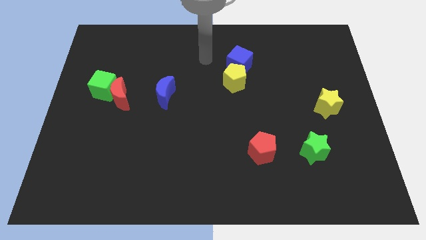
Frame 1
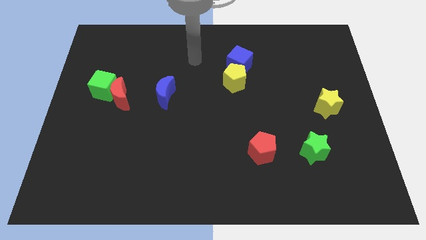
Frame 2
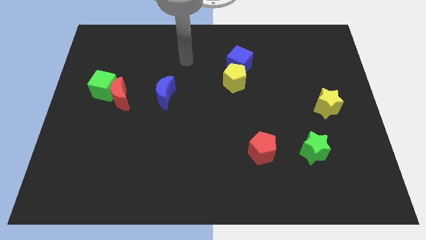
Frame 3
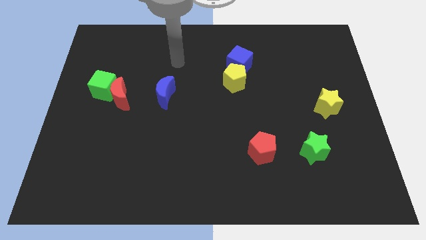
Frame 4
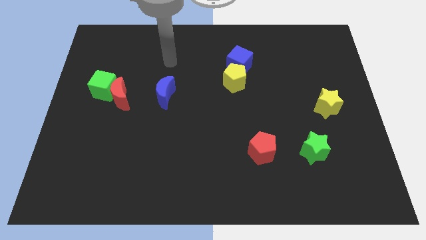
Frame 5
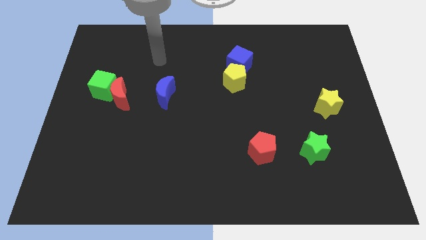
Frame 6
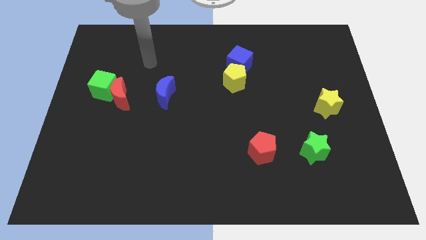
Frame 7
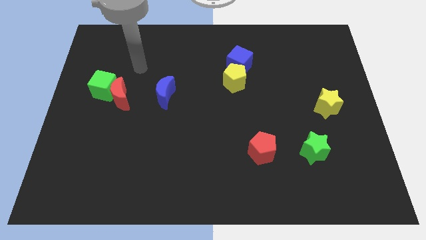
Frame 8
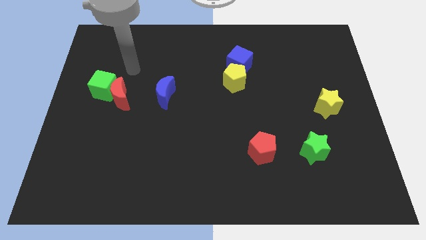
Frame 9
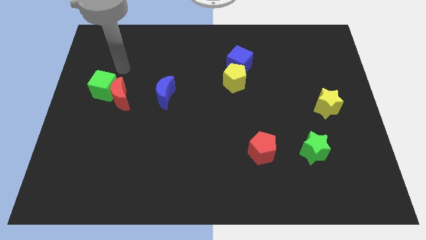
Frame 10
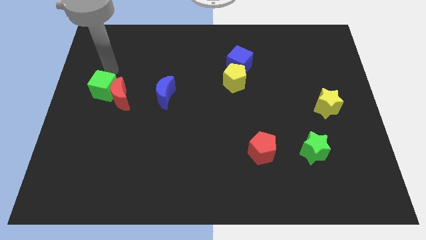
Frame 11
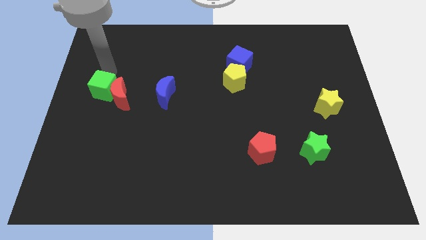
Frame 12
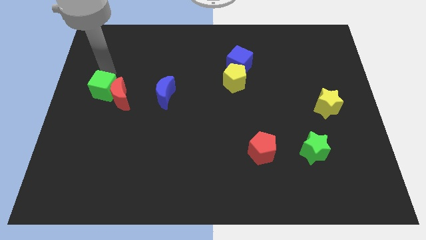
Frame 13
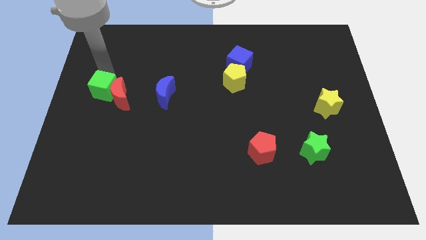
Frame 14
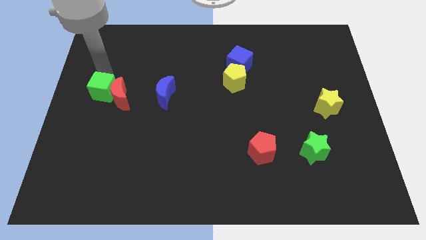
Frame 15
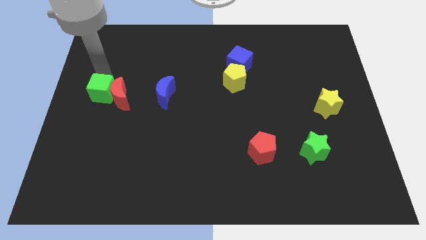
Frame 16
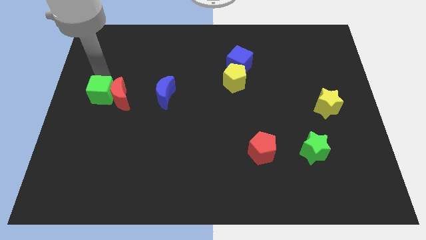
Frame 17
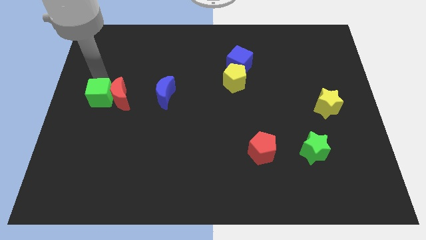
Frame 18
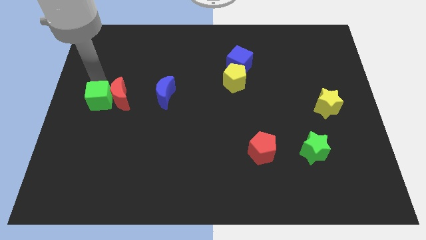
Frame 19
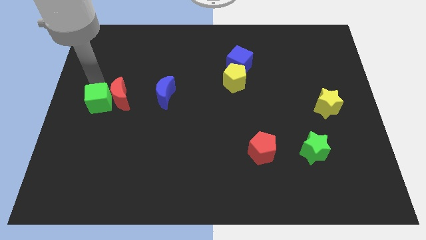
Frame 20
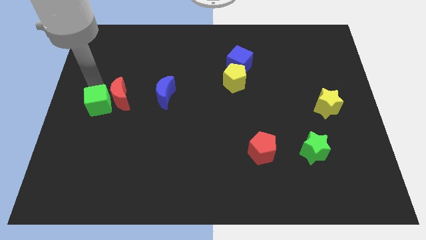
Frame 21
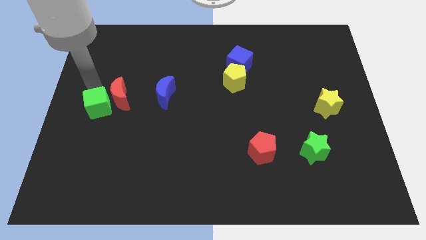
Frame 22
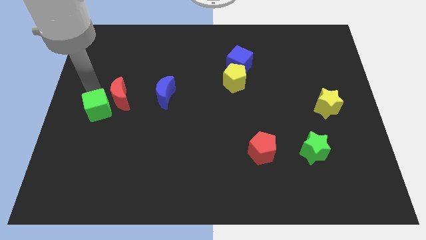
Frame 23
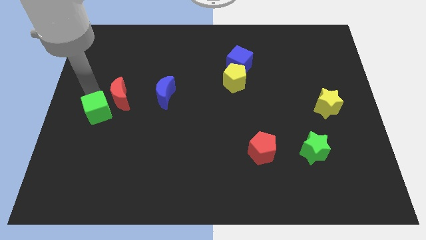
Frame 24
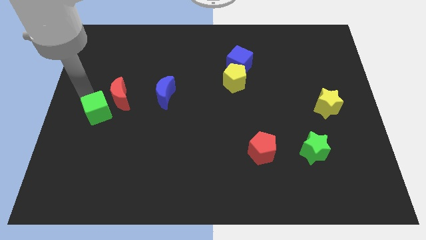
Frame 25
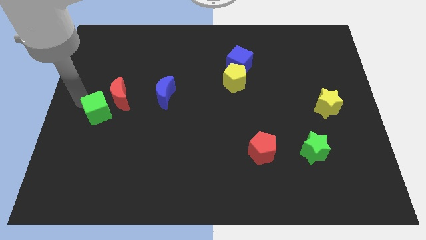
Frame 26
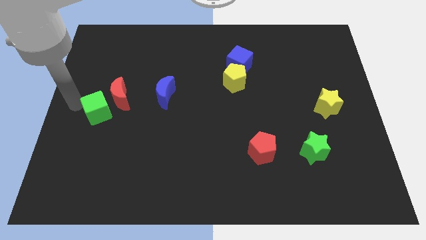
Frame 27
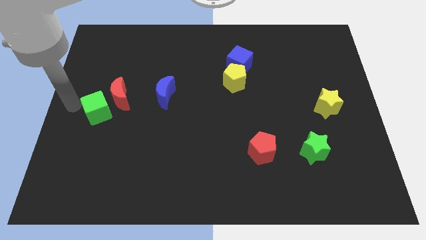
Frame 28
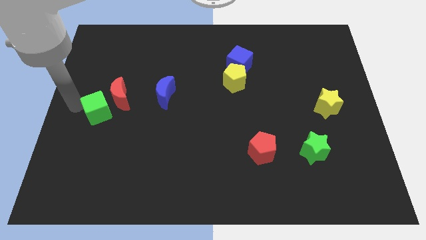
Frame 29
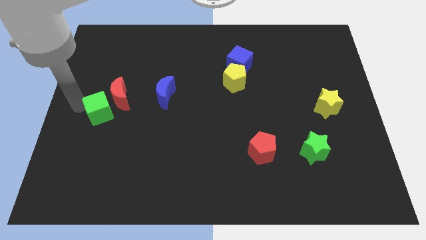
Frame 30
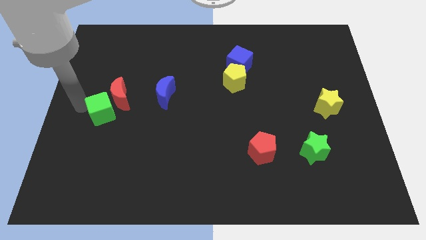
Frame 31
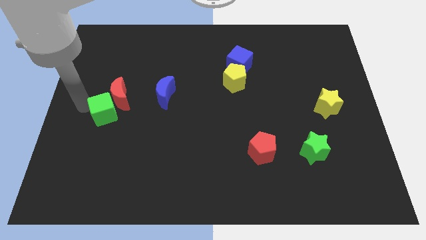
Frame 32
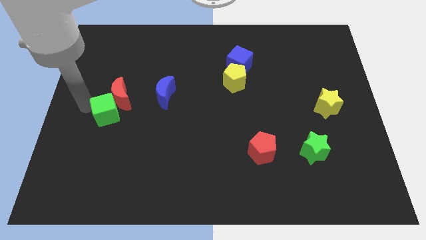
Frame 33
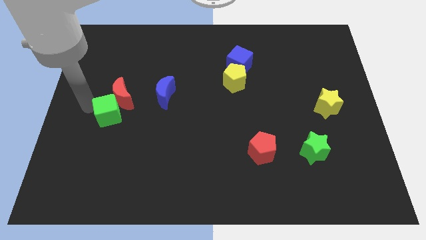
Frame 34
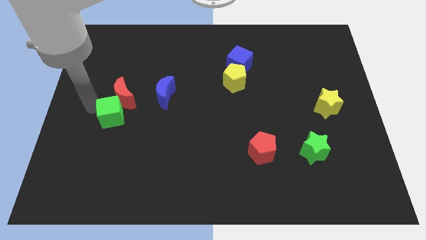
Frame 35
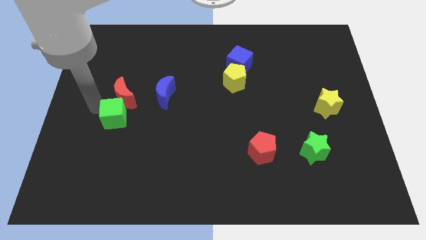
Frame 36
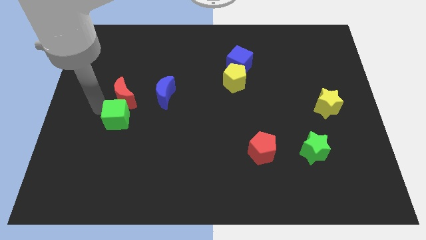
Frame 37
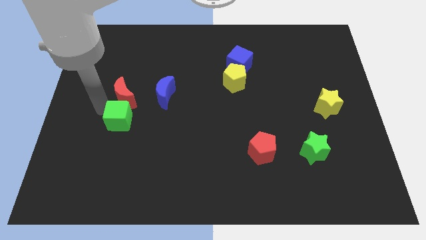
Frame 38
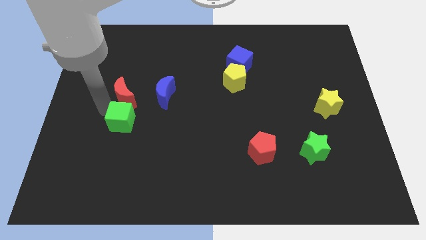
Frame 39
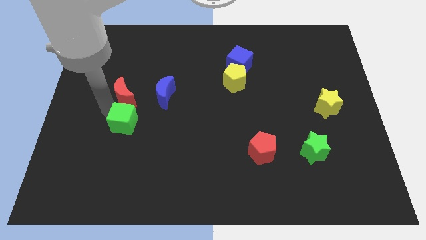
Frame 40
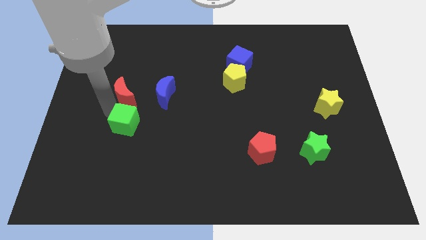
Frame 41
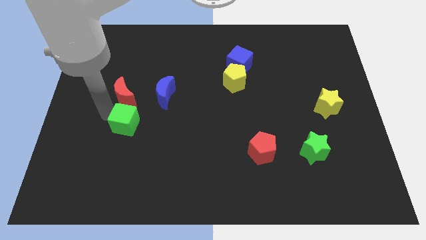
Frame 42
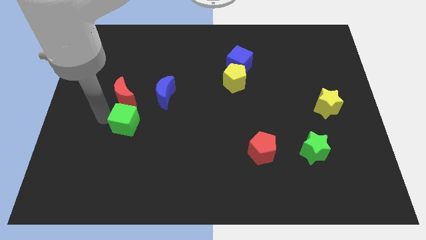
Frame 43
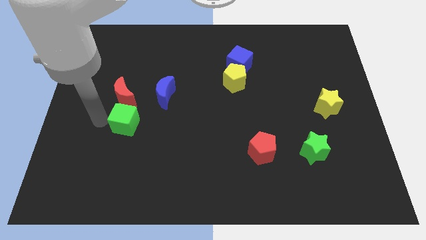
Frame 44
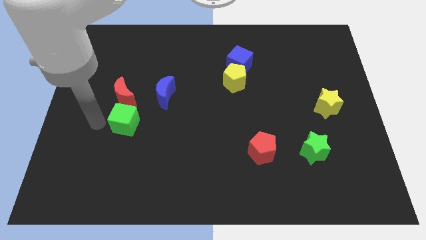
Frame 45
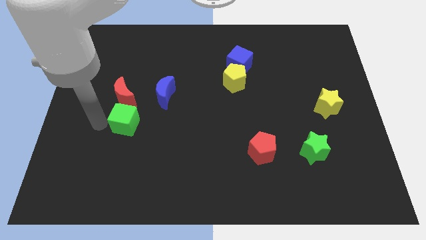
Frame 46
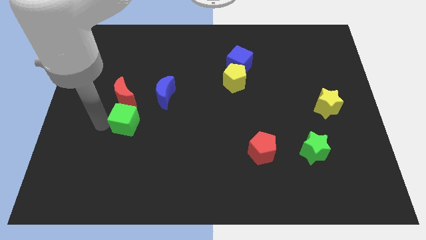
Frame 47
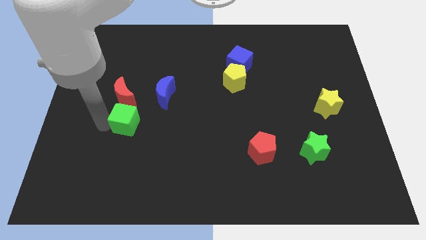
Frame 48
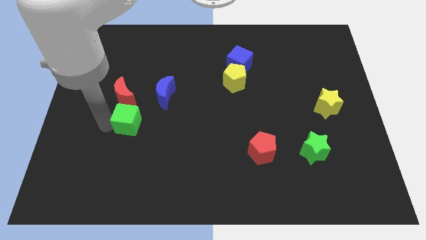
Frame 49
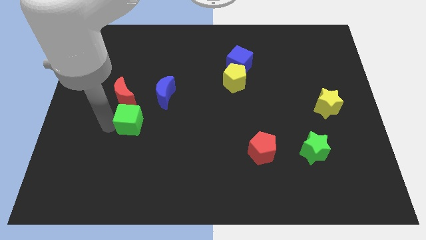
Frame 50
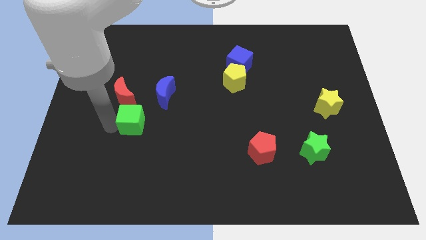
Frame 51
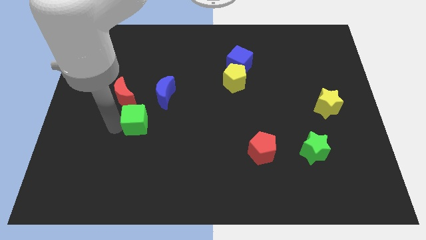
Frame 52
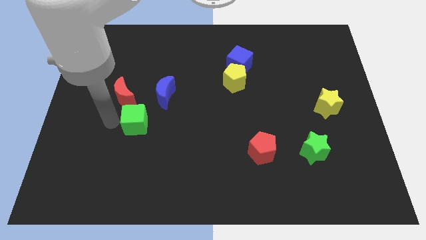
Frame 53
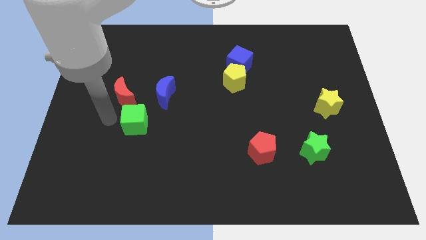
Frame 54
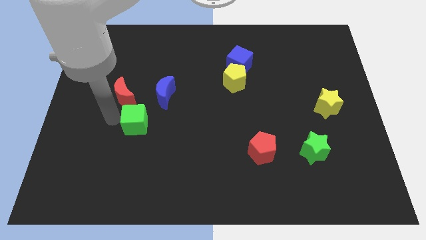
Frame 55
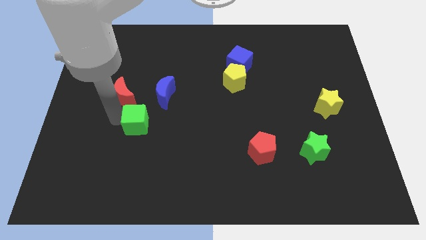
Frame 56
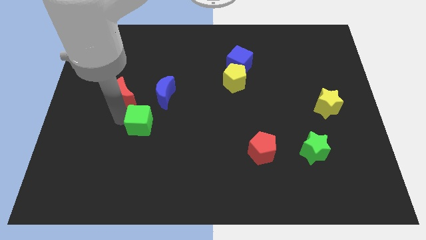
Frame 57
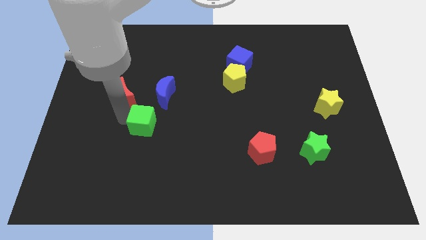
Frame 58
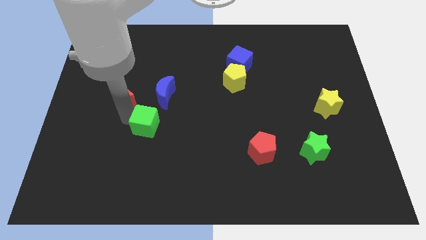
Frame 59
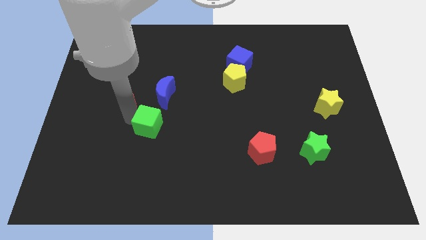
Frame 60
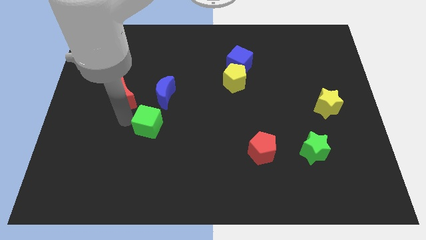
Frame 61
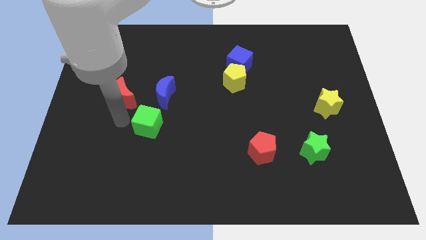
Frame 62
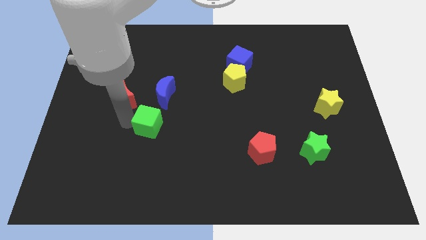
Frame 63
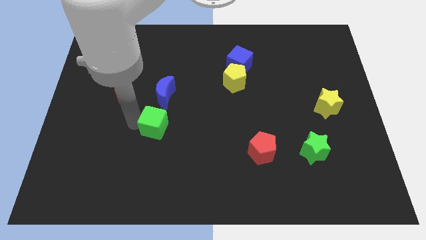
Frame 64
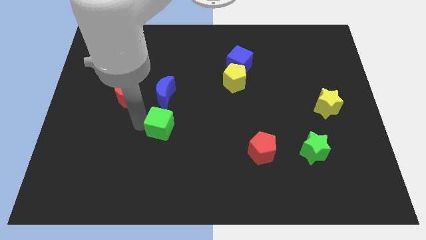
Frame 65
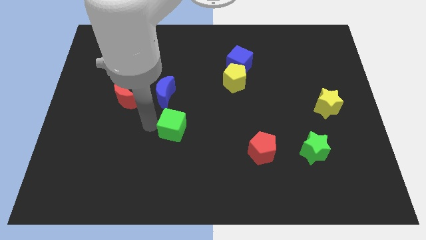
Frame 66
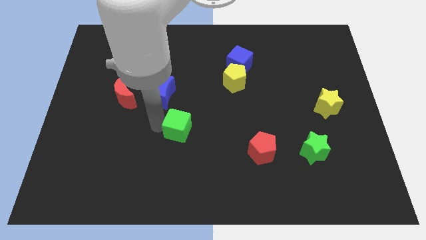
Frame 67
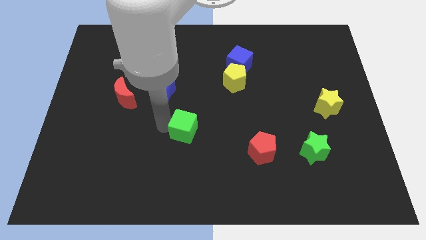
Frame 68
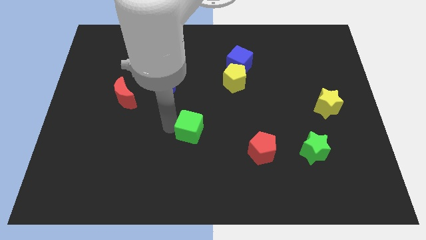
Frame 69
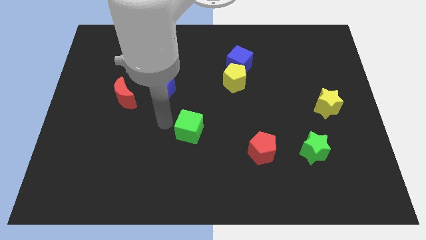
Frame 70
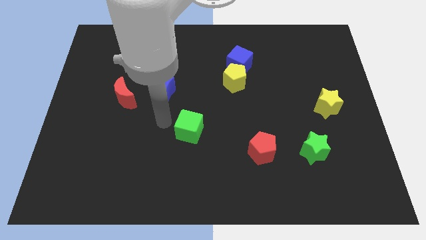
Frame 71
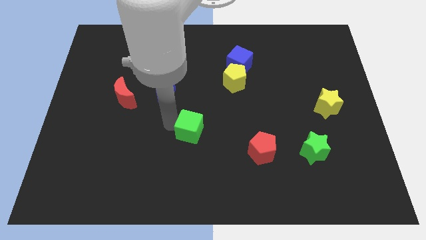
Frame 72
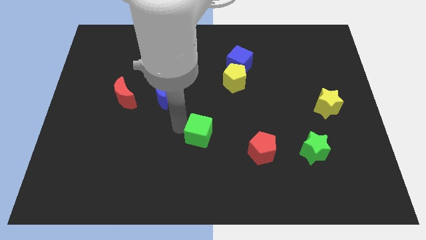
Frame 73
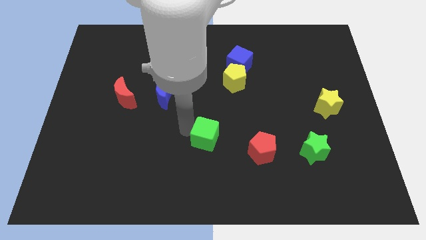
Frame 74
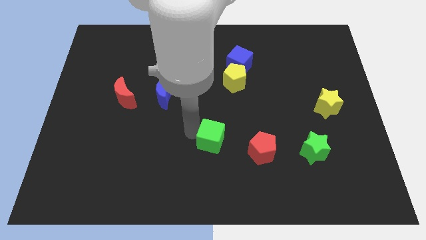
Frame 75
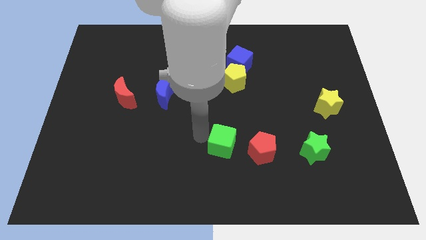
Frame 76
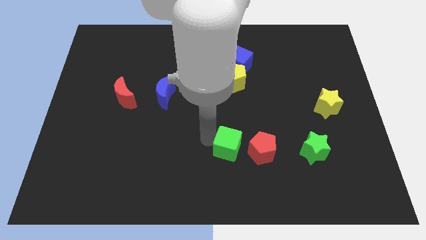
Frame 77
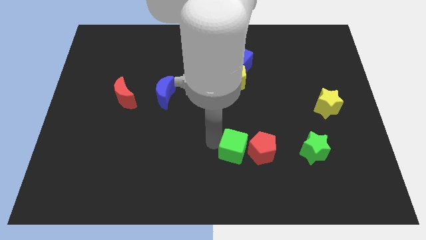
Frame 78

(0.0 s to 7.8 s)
push the green cube to the red pentagon
